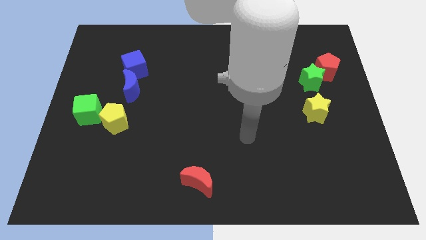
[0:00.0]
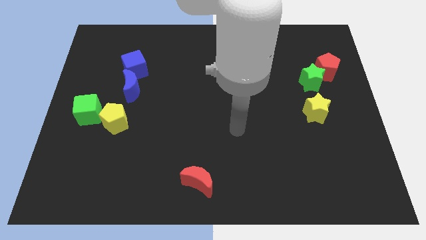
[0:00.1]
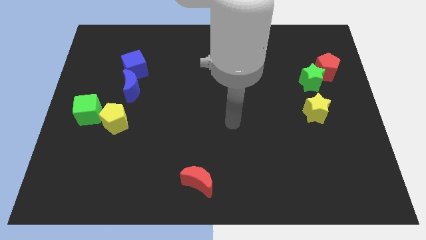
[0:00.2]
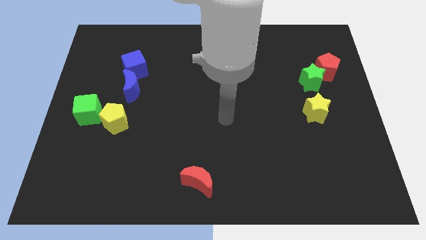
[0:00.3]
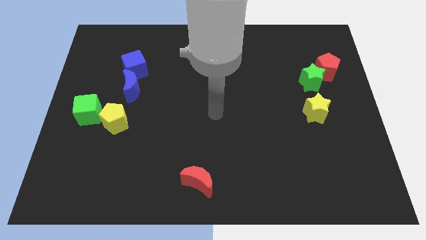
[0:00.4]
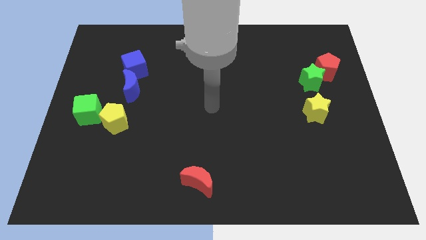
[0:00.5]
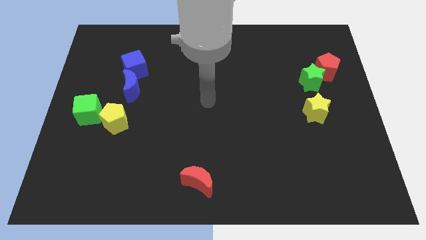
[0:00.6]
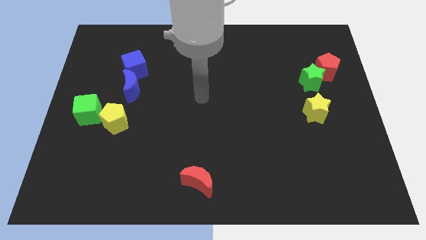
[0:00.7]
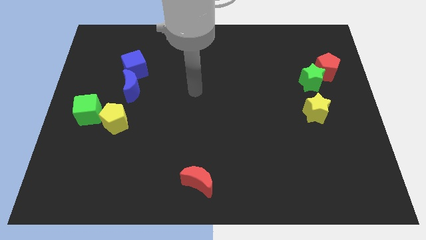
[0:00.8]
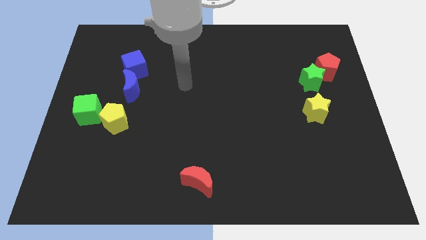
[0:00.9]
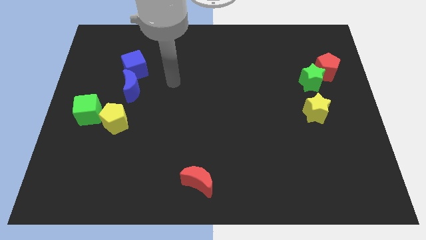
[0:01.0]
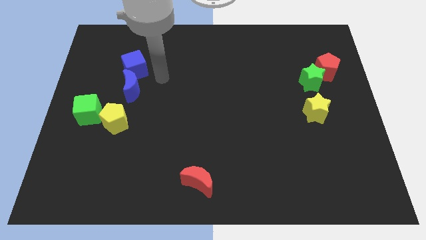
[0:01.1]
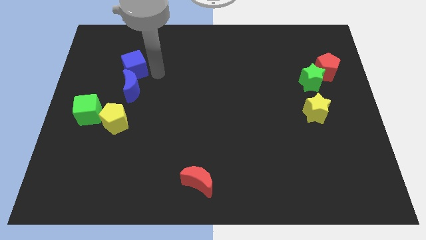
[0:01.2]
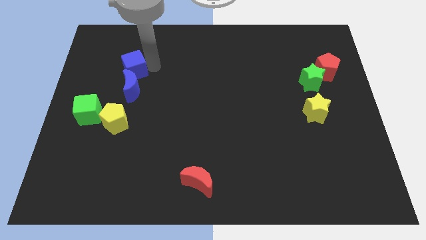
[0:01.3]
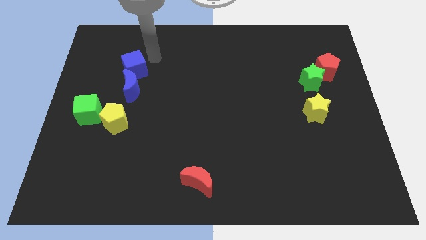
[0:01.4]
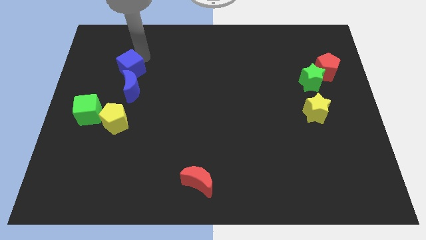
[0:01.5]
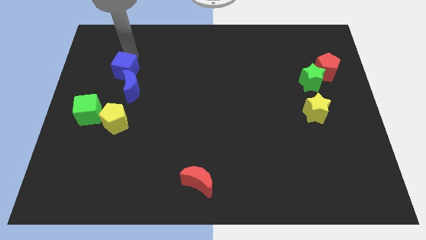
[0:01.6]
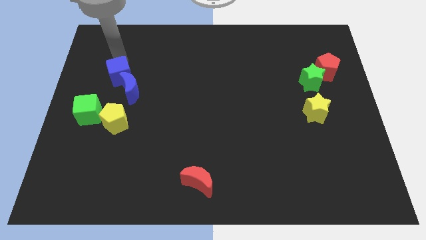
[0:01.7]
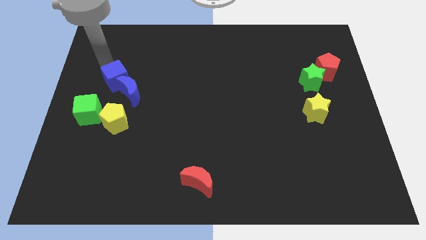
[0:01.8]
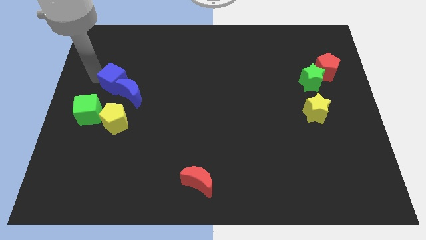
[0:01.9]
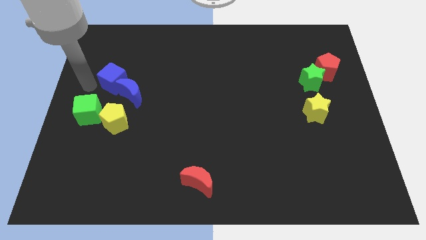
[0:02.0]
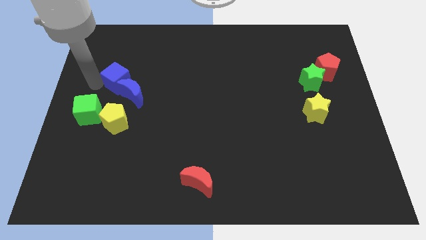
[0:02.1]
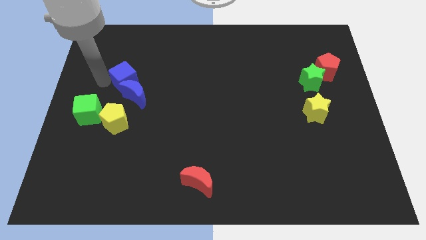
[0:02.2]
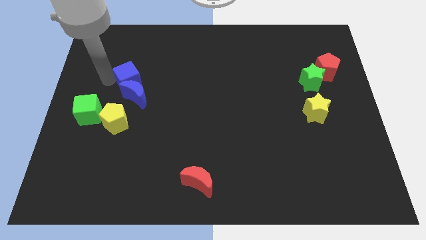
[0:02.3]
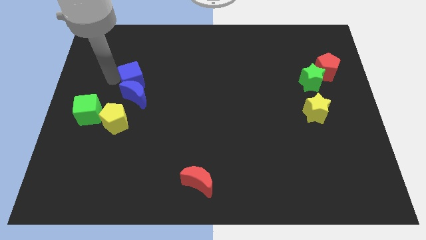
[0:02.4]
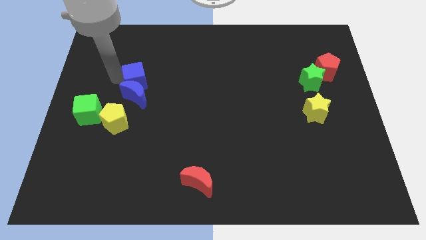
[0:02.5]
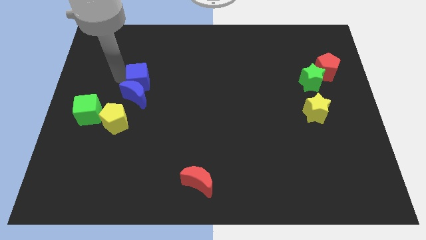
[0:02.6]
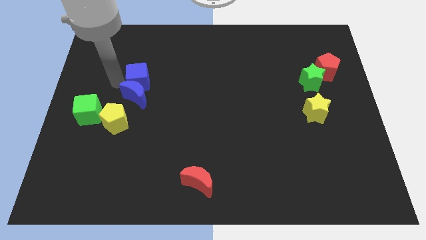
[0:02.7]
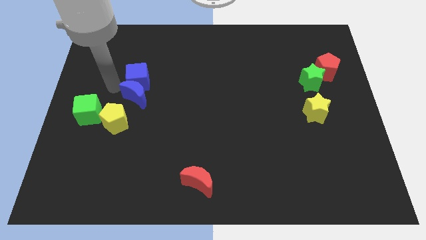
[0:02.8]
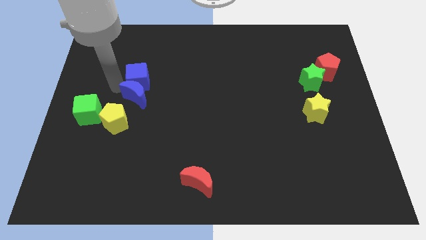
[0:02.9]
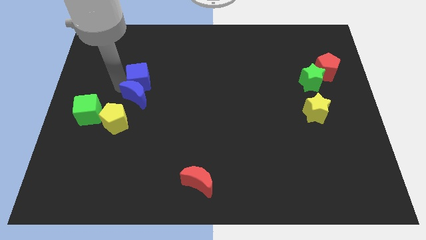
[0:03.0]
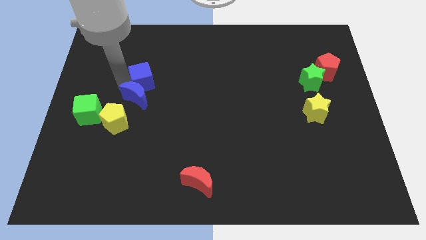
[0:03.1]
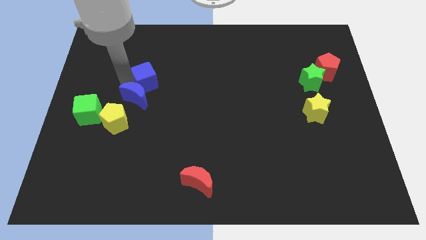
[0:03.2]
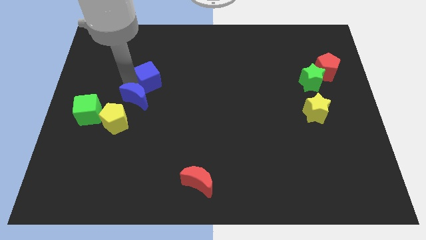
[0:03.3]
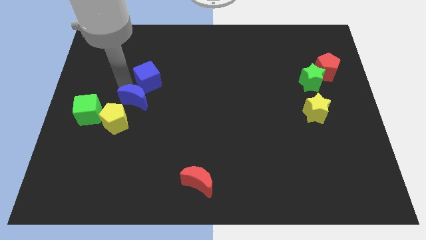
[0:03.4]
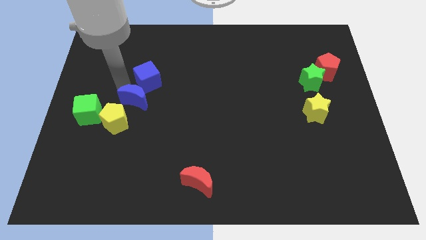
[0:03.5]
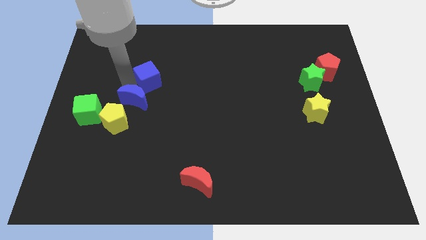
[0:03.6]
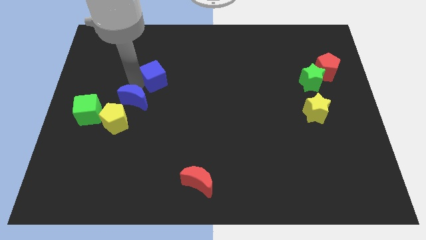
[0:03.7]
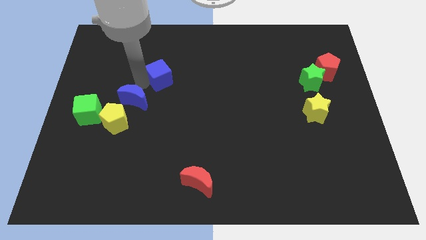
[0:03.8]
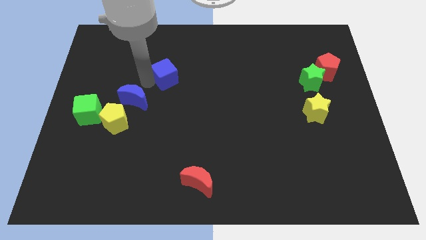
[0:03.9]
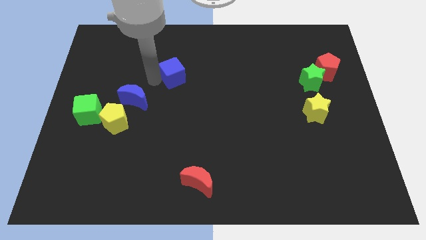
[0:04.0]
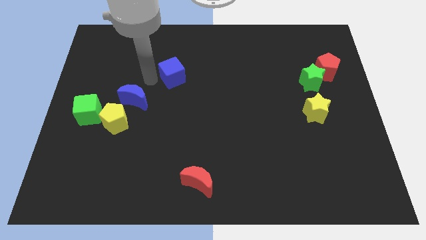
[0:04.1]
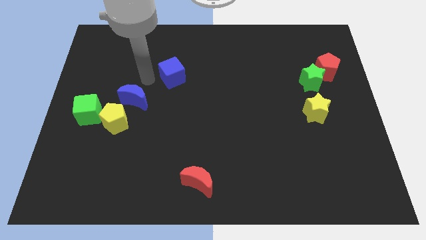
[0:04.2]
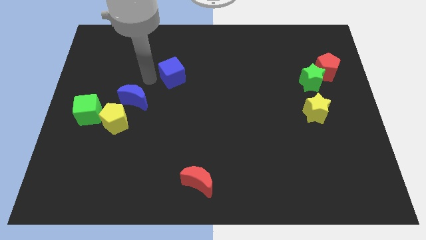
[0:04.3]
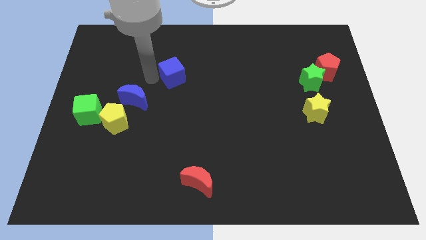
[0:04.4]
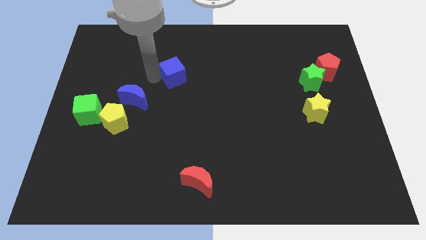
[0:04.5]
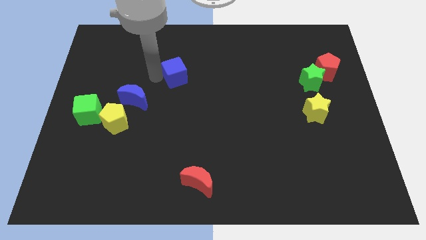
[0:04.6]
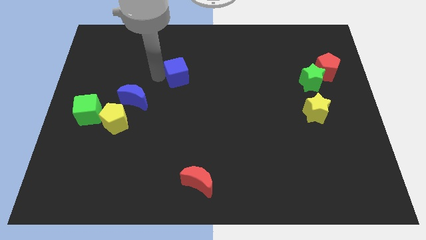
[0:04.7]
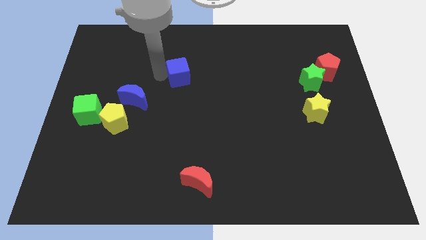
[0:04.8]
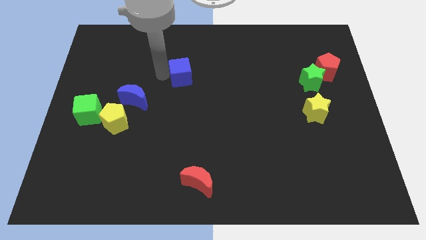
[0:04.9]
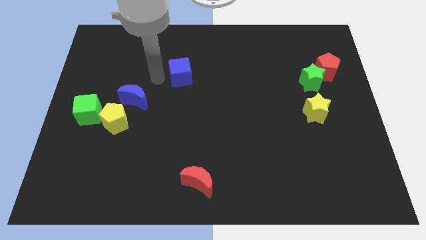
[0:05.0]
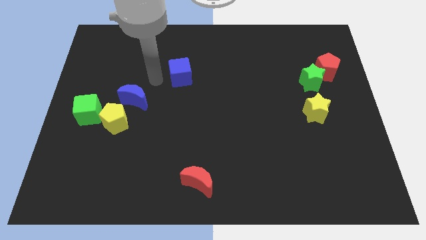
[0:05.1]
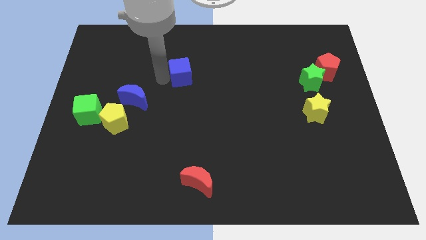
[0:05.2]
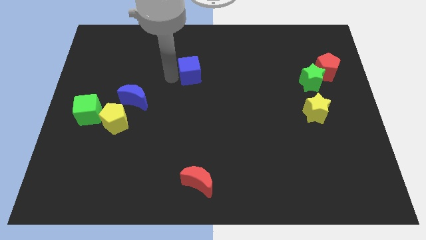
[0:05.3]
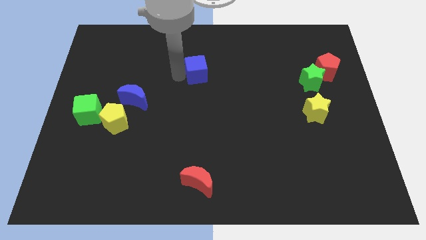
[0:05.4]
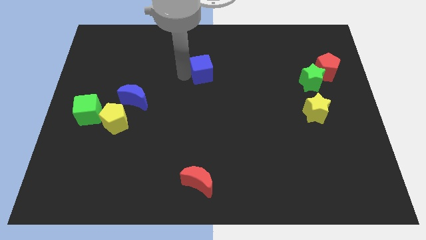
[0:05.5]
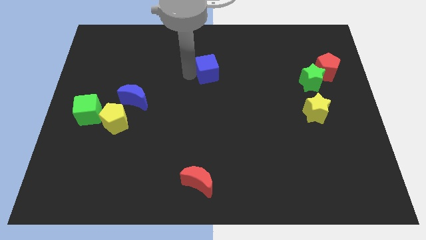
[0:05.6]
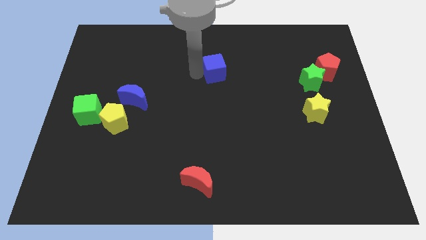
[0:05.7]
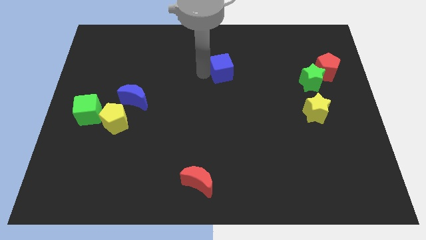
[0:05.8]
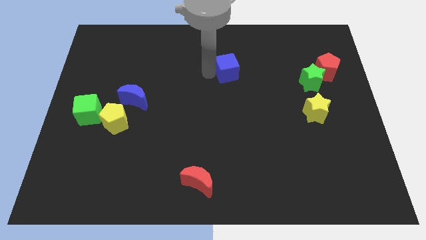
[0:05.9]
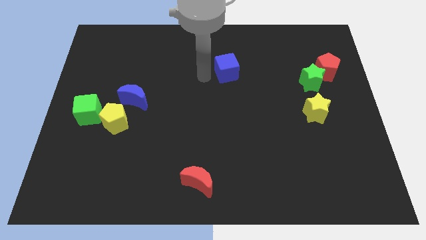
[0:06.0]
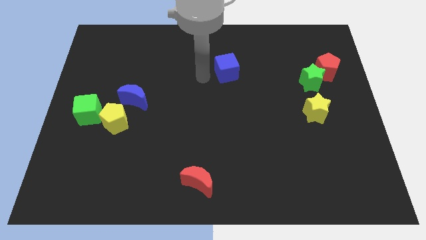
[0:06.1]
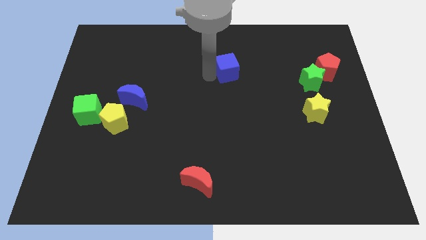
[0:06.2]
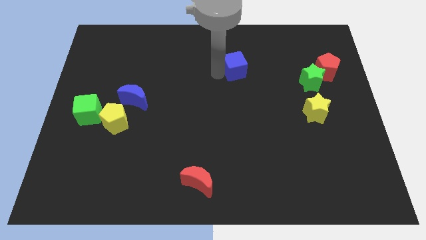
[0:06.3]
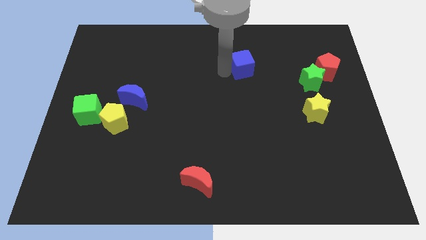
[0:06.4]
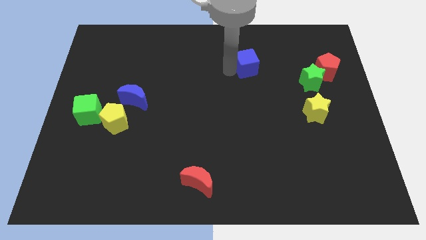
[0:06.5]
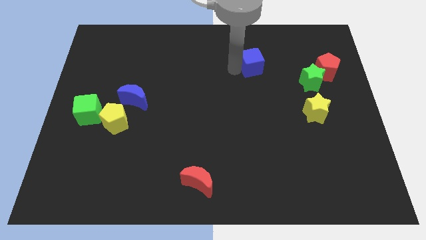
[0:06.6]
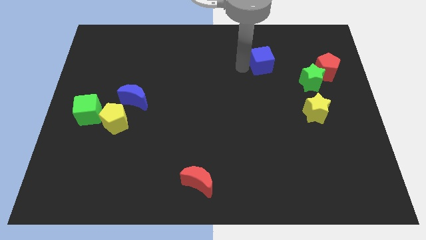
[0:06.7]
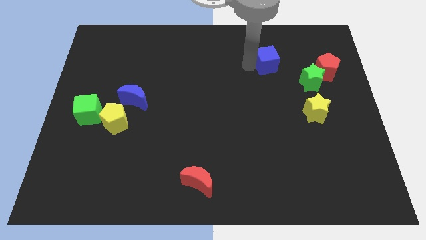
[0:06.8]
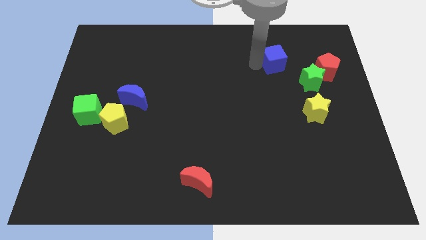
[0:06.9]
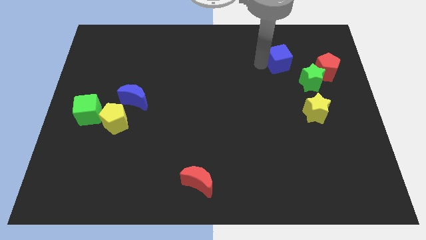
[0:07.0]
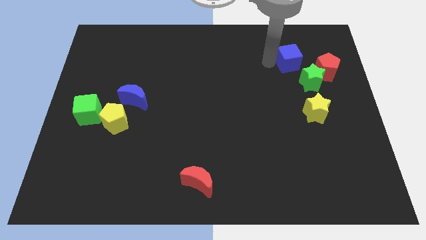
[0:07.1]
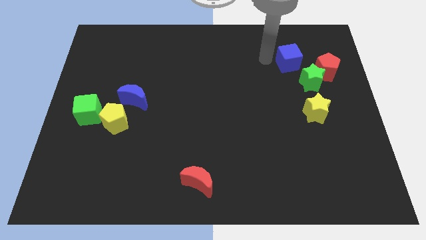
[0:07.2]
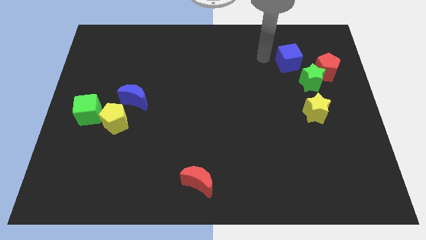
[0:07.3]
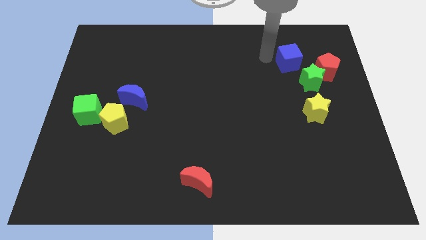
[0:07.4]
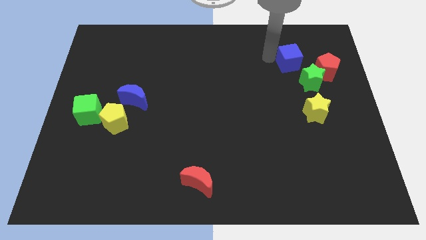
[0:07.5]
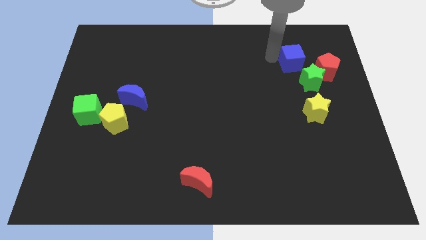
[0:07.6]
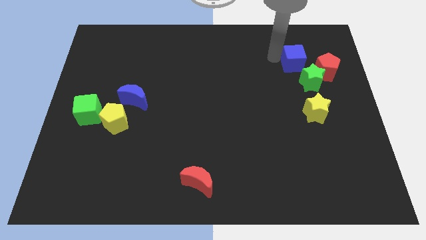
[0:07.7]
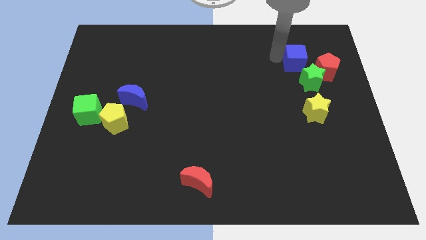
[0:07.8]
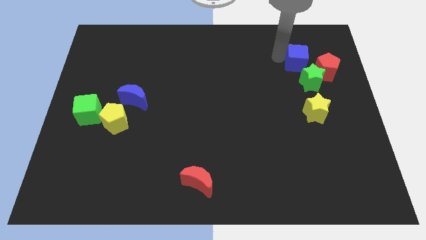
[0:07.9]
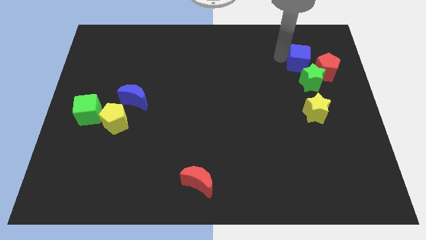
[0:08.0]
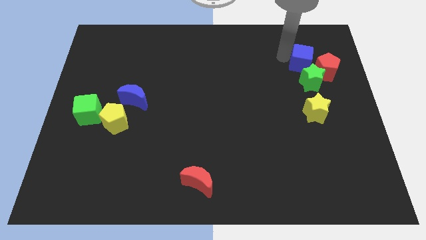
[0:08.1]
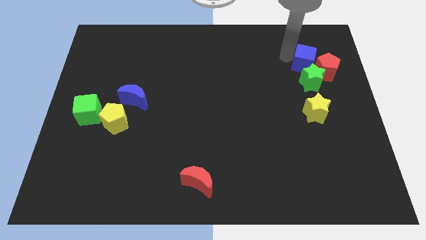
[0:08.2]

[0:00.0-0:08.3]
put the blue cube next to the red pentagon
